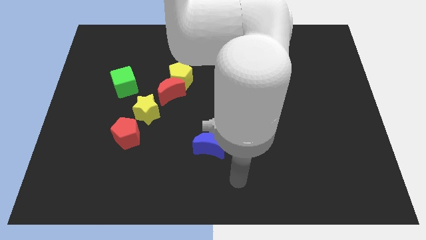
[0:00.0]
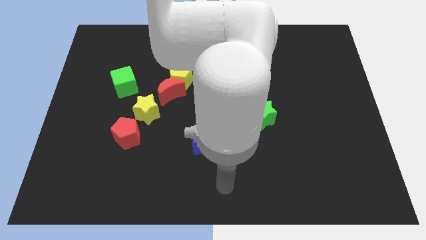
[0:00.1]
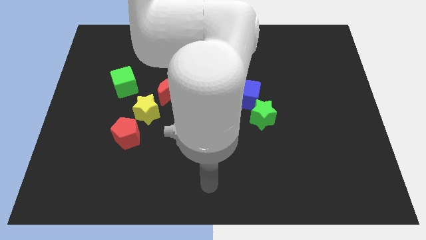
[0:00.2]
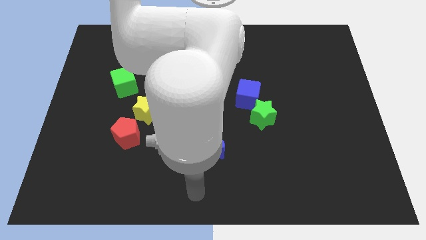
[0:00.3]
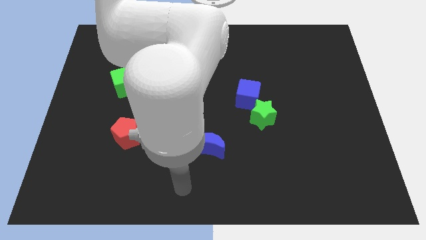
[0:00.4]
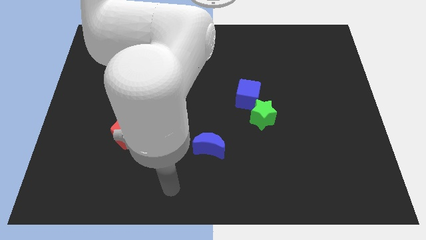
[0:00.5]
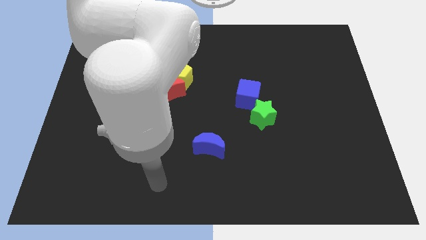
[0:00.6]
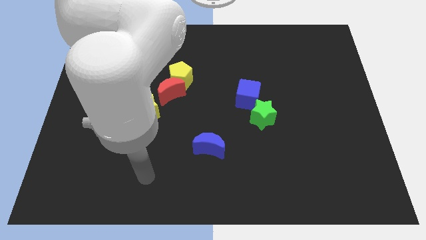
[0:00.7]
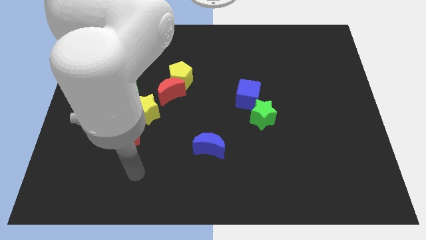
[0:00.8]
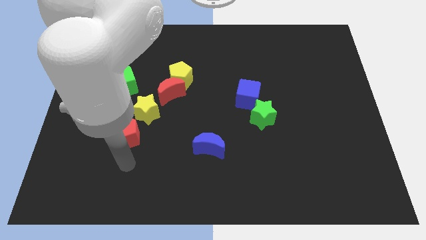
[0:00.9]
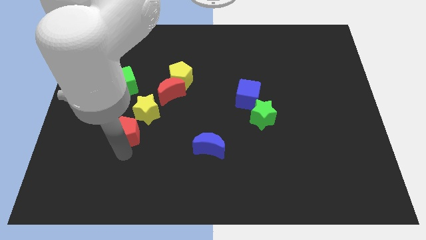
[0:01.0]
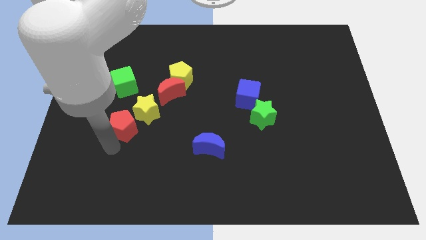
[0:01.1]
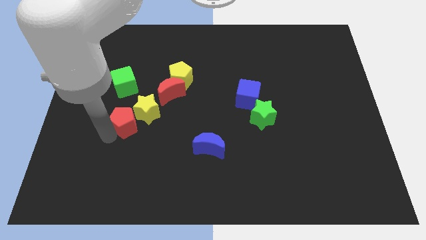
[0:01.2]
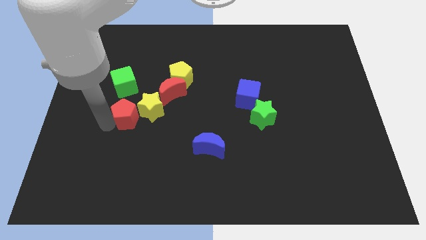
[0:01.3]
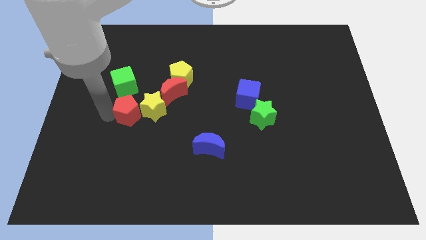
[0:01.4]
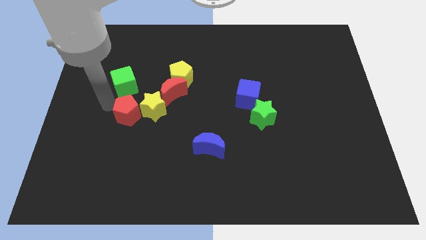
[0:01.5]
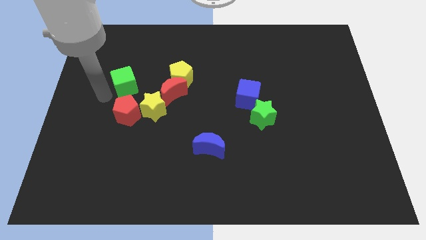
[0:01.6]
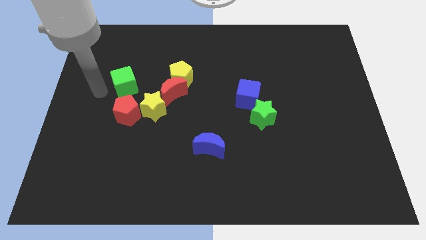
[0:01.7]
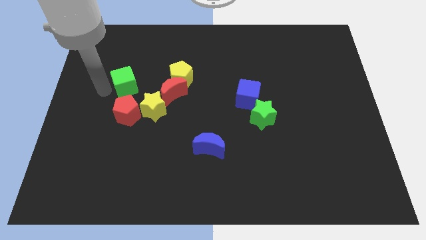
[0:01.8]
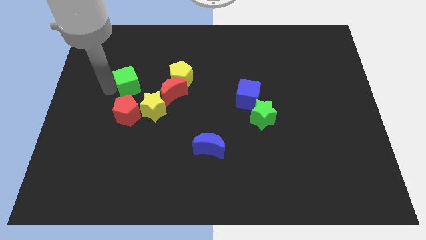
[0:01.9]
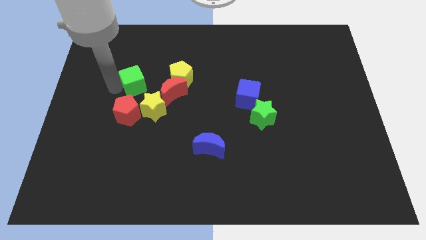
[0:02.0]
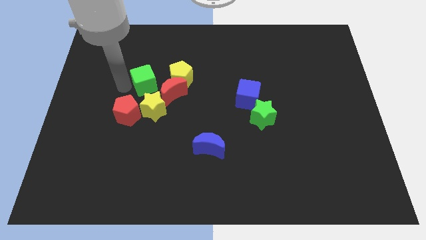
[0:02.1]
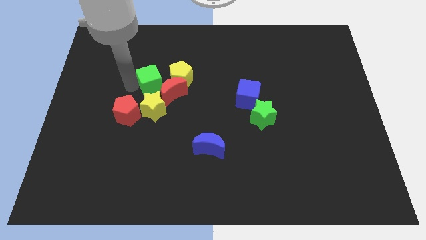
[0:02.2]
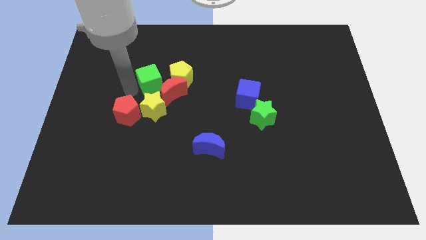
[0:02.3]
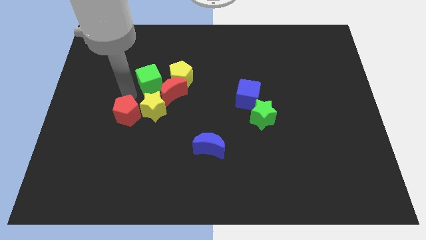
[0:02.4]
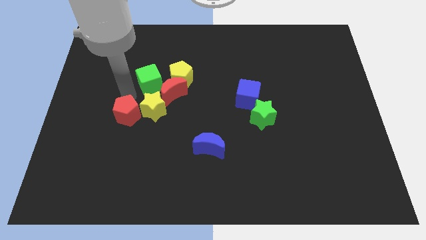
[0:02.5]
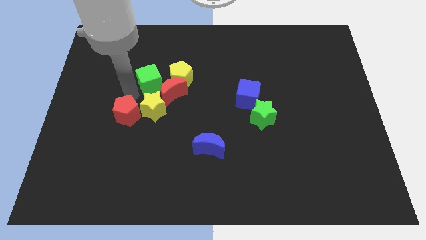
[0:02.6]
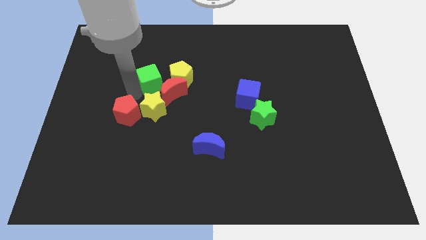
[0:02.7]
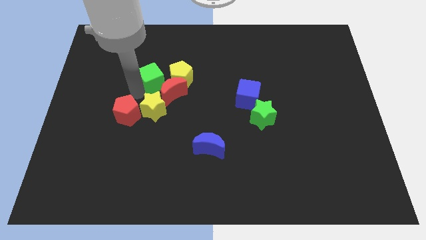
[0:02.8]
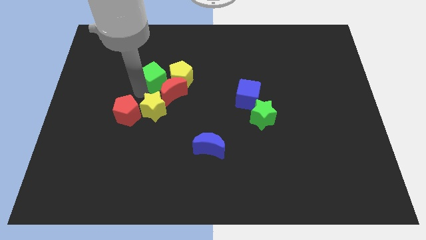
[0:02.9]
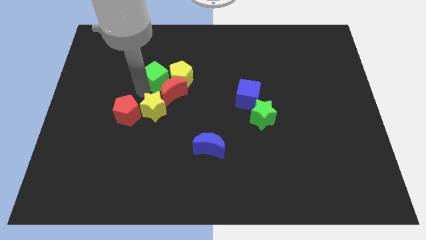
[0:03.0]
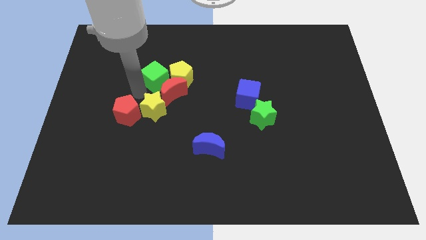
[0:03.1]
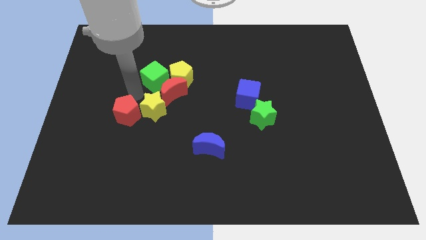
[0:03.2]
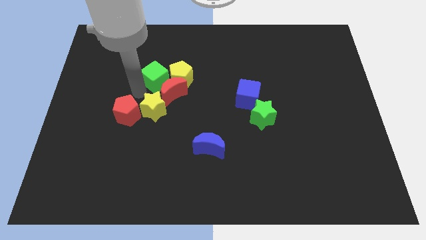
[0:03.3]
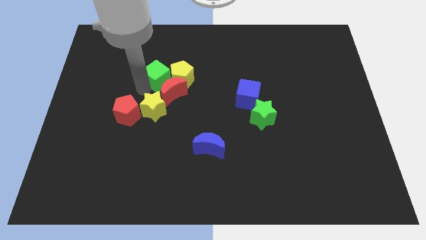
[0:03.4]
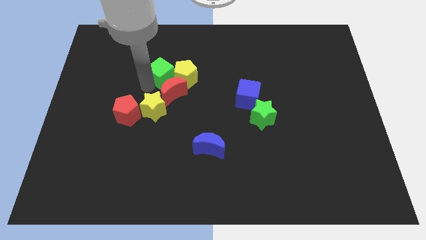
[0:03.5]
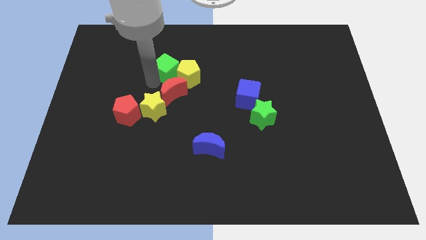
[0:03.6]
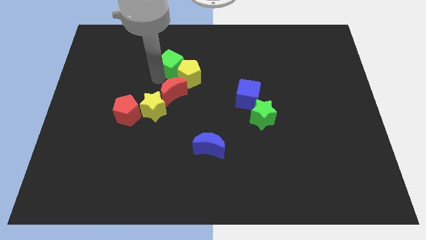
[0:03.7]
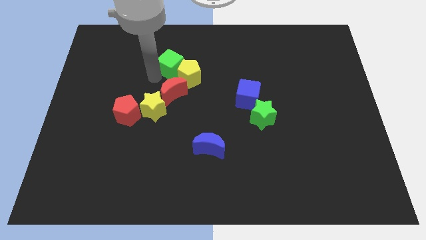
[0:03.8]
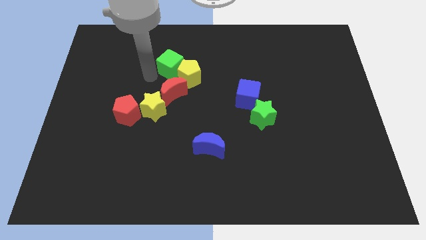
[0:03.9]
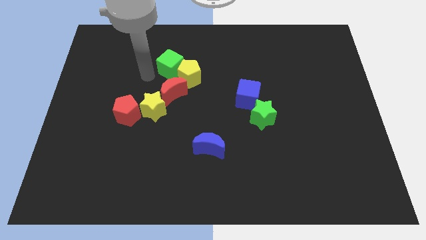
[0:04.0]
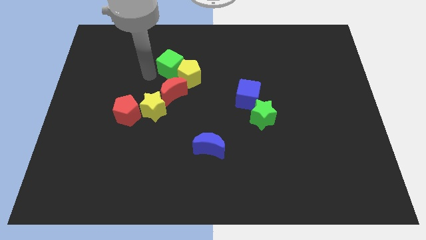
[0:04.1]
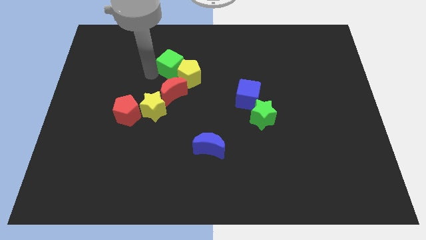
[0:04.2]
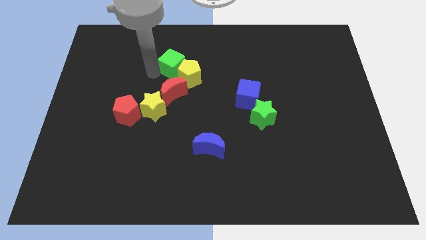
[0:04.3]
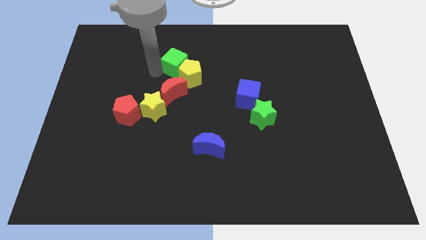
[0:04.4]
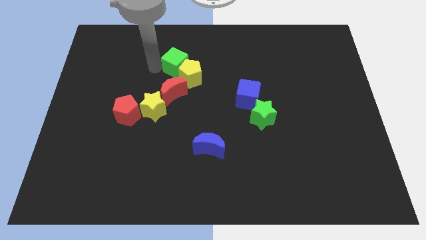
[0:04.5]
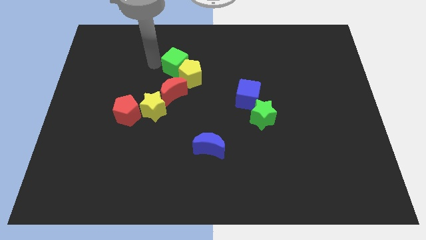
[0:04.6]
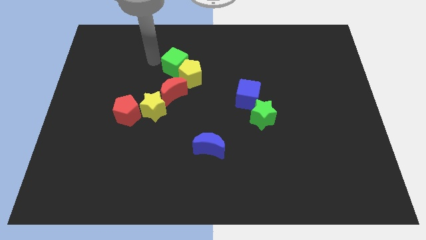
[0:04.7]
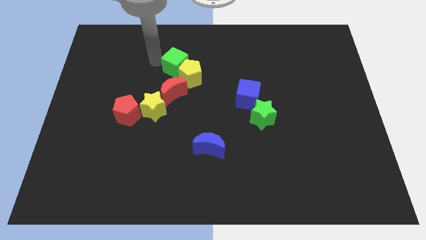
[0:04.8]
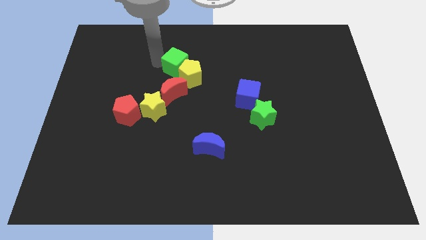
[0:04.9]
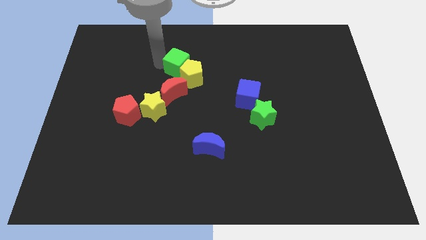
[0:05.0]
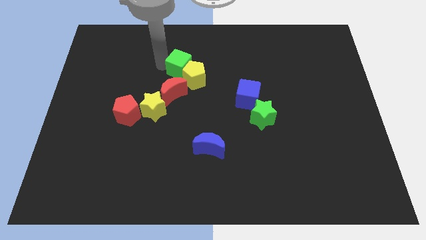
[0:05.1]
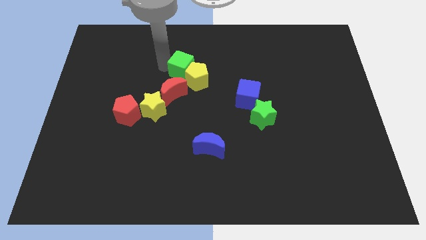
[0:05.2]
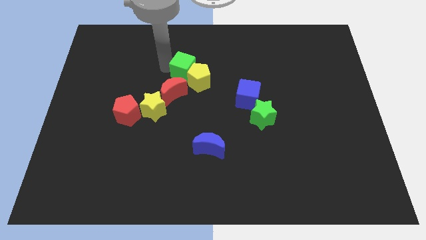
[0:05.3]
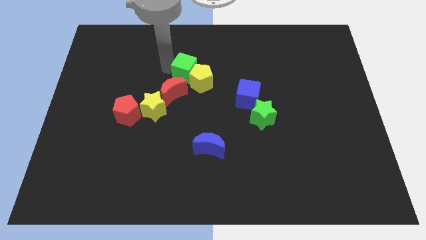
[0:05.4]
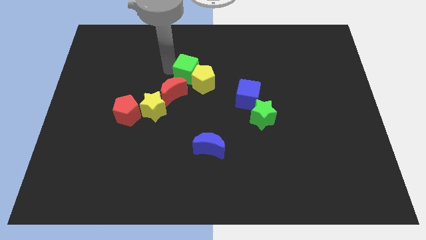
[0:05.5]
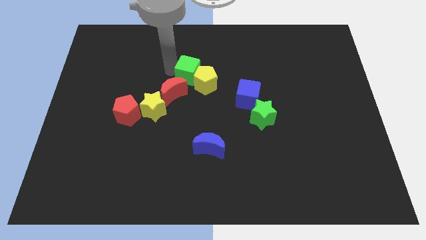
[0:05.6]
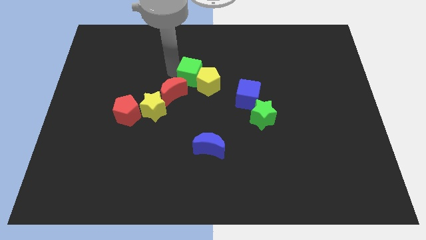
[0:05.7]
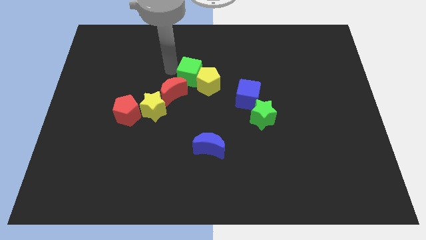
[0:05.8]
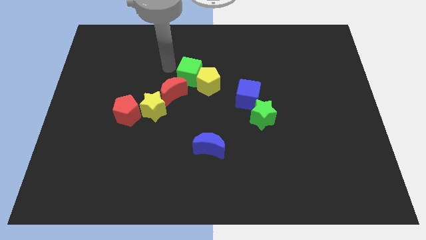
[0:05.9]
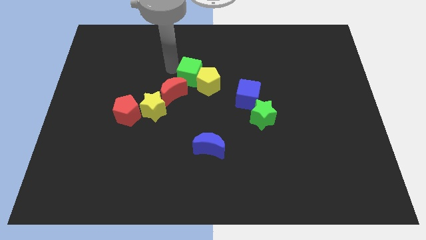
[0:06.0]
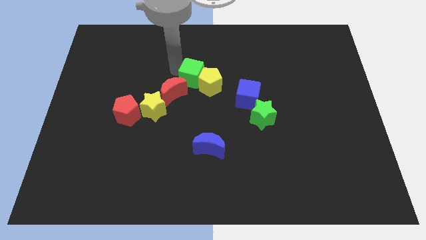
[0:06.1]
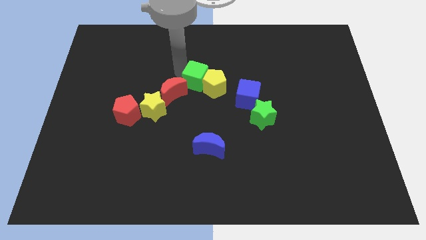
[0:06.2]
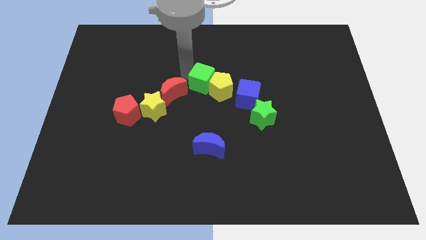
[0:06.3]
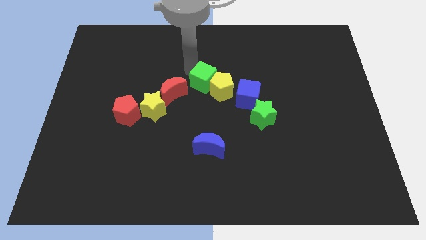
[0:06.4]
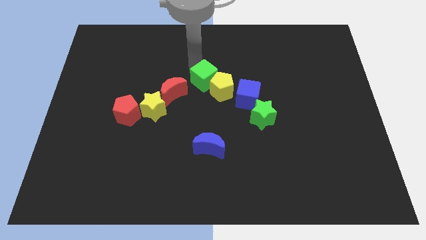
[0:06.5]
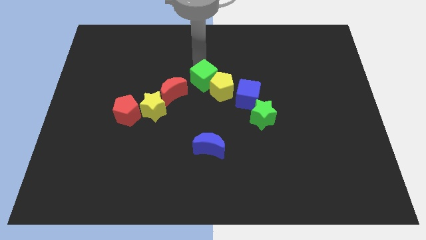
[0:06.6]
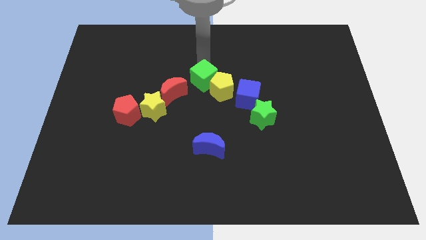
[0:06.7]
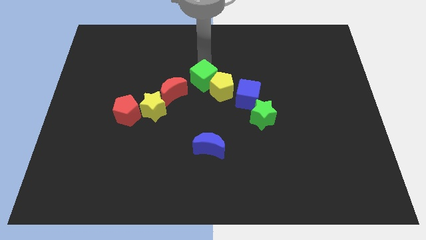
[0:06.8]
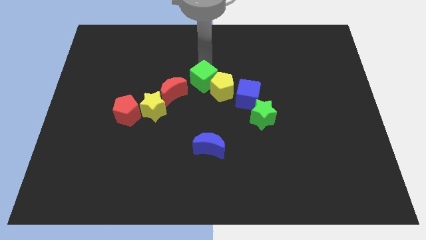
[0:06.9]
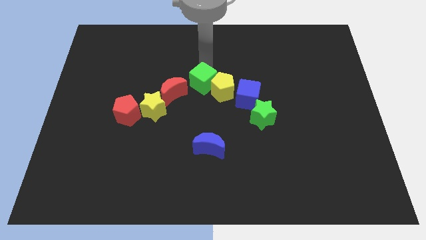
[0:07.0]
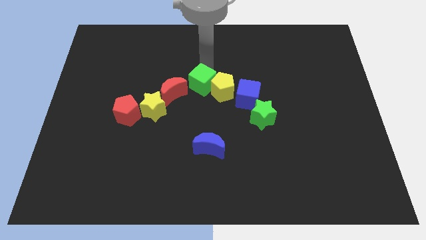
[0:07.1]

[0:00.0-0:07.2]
push the green cube left of the blue cube

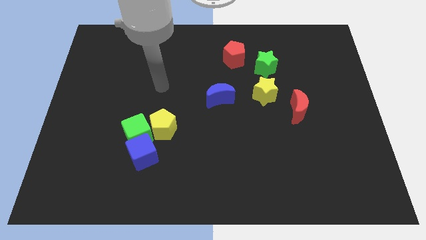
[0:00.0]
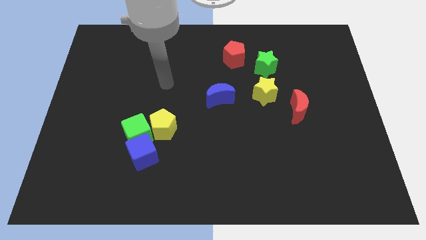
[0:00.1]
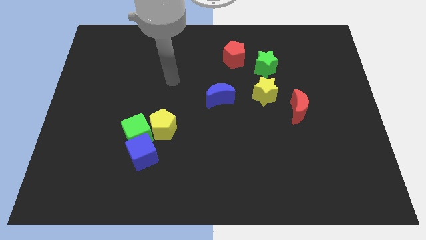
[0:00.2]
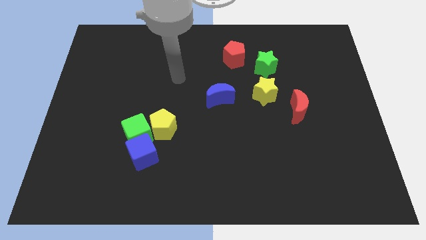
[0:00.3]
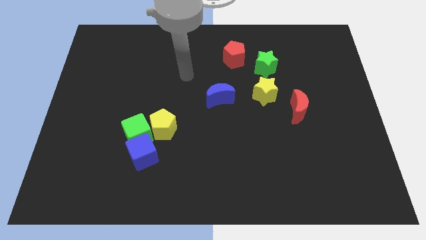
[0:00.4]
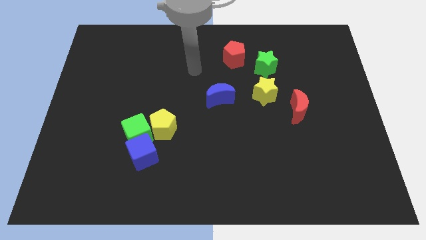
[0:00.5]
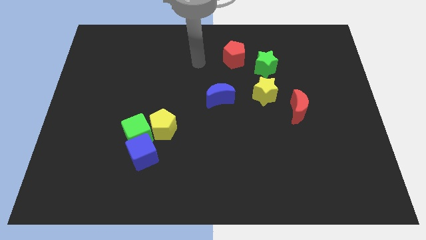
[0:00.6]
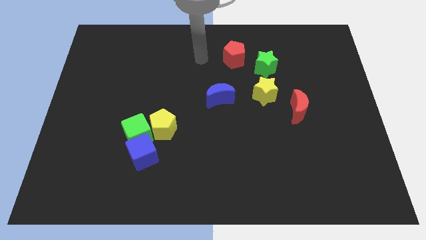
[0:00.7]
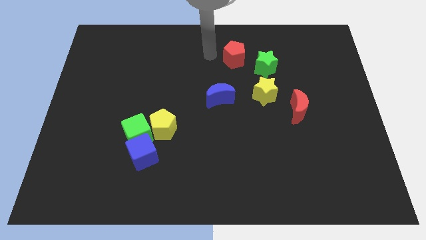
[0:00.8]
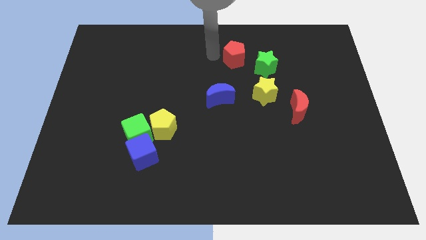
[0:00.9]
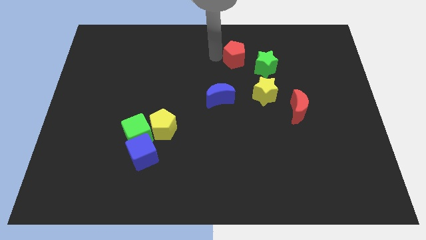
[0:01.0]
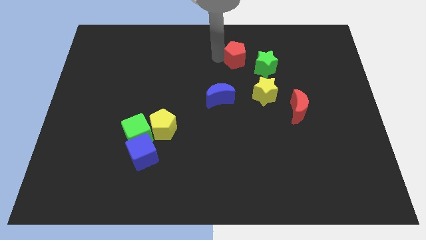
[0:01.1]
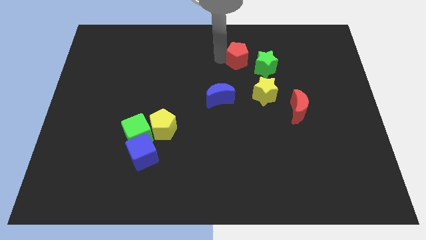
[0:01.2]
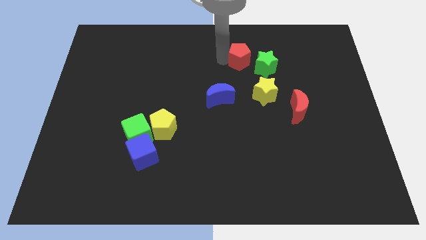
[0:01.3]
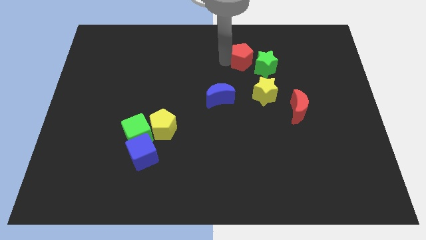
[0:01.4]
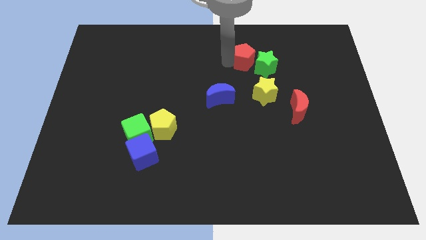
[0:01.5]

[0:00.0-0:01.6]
move the red pentagon above the yellow star
